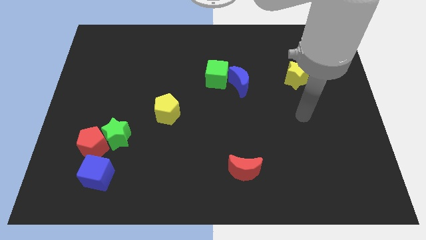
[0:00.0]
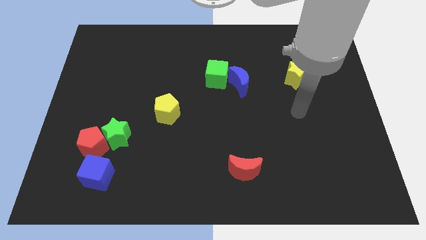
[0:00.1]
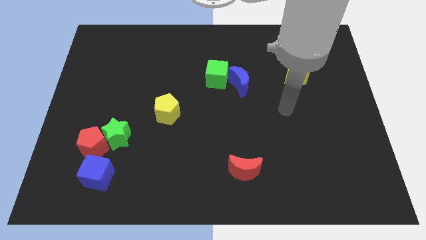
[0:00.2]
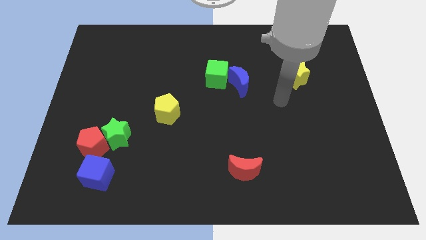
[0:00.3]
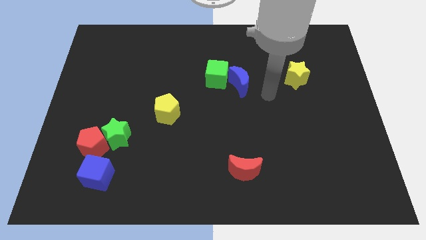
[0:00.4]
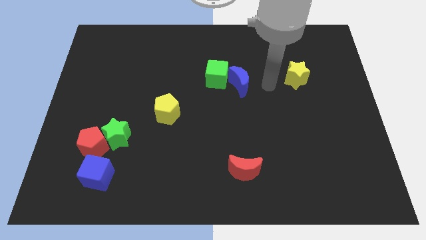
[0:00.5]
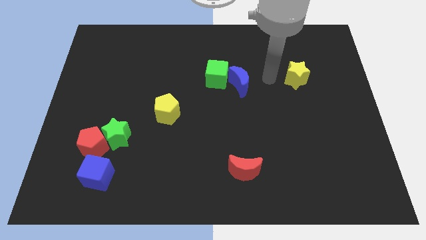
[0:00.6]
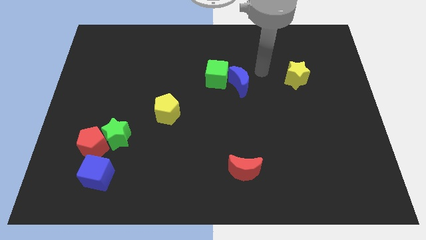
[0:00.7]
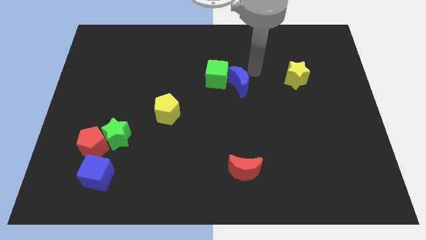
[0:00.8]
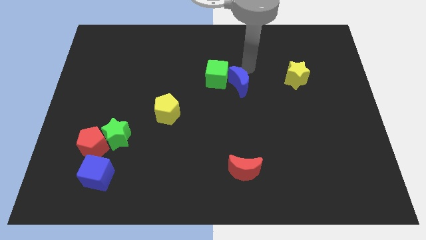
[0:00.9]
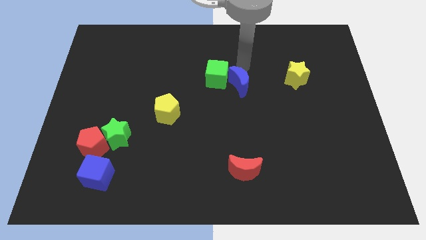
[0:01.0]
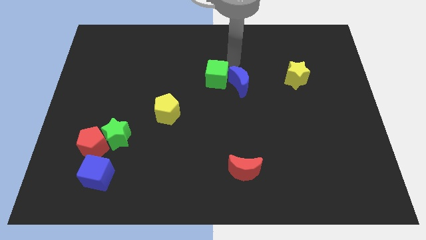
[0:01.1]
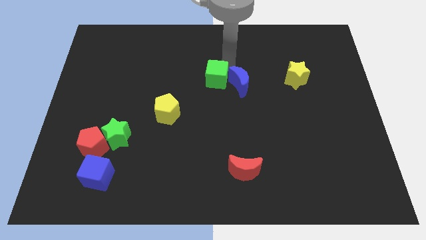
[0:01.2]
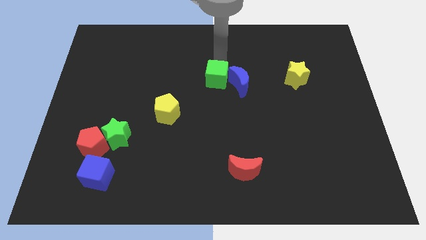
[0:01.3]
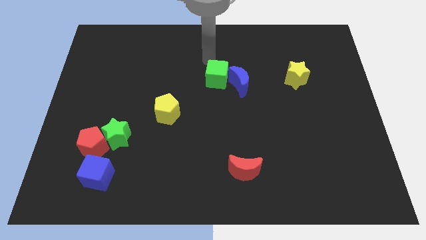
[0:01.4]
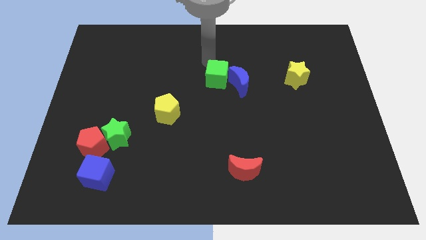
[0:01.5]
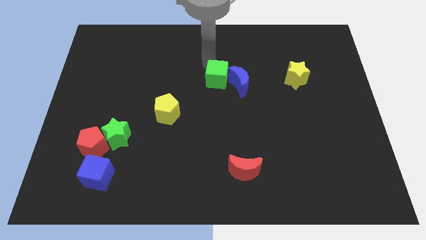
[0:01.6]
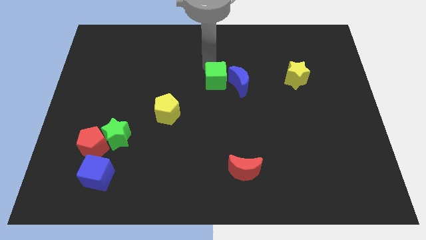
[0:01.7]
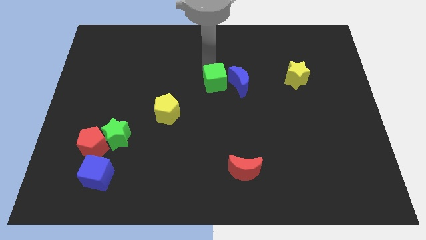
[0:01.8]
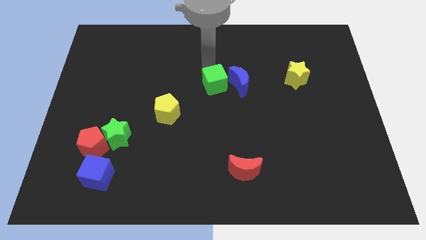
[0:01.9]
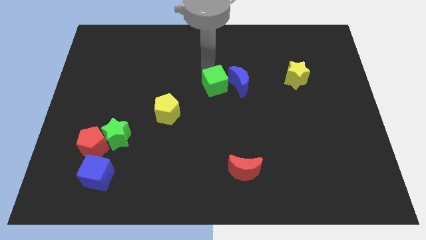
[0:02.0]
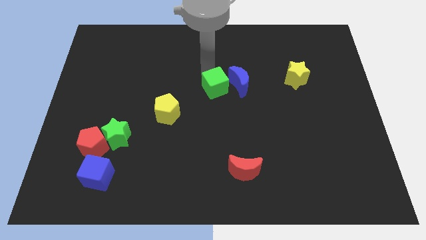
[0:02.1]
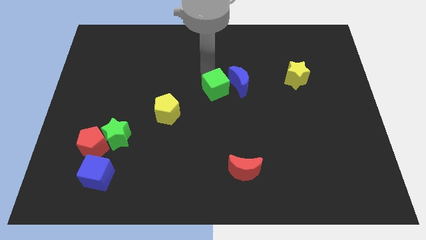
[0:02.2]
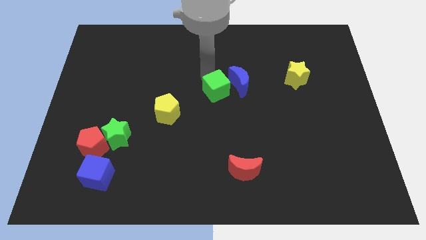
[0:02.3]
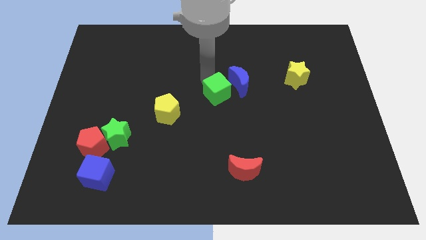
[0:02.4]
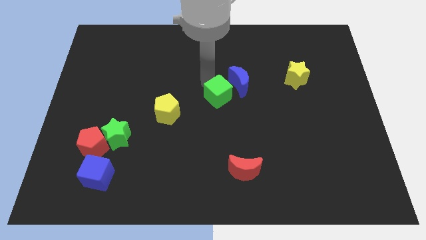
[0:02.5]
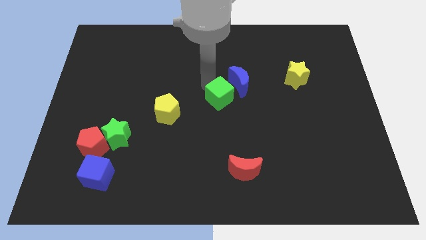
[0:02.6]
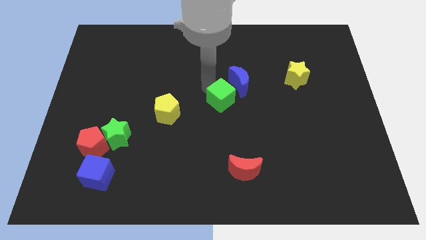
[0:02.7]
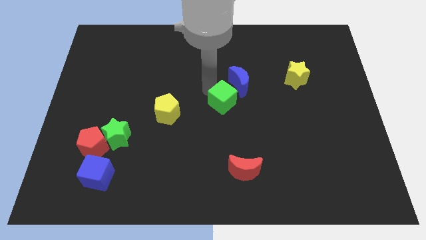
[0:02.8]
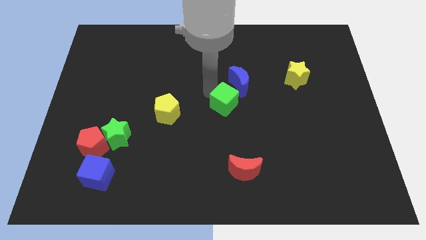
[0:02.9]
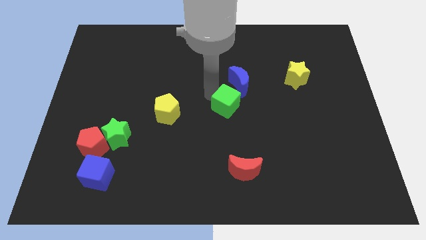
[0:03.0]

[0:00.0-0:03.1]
slightly move the green cube downwards and right

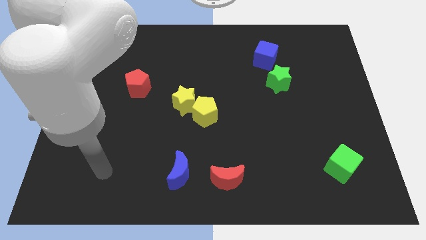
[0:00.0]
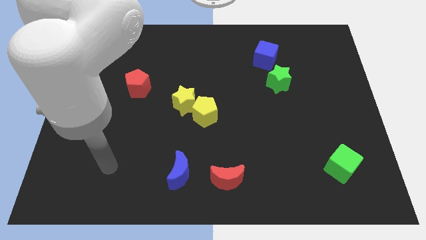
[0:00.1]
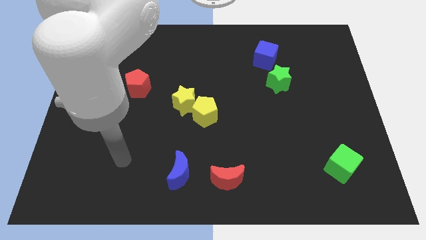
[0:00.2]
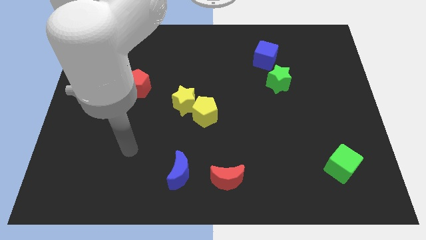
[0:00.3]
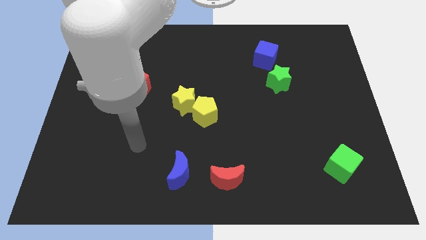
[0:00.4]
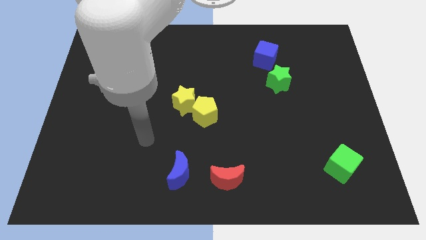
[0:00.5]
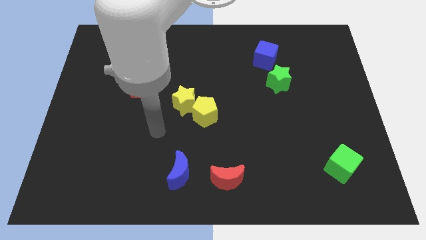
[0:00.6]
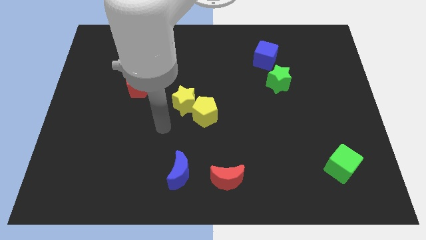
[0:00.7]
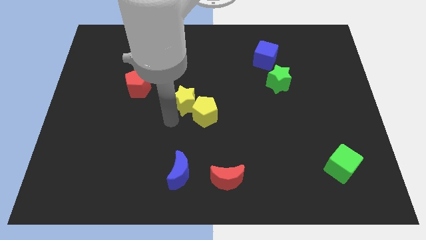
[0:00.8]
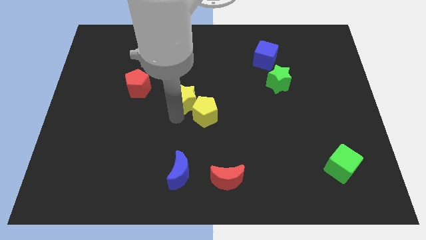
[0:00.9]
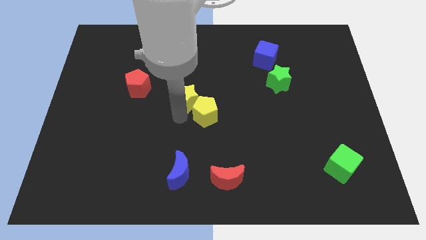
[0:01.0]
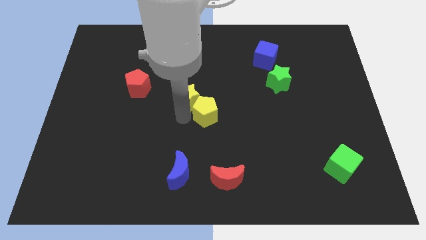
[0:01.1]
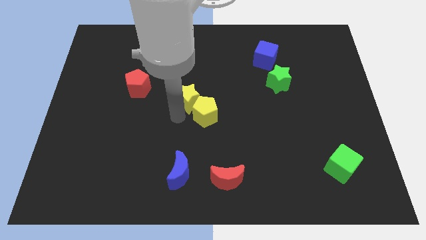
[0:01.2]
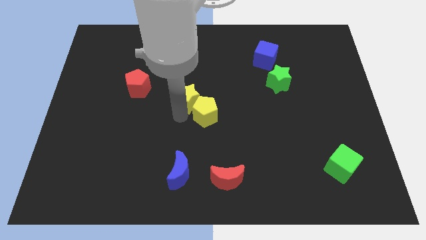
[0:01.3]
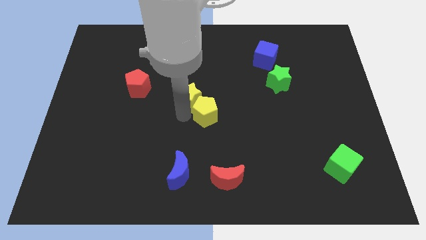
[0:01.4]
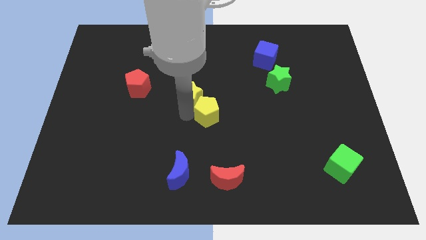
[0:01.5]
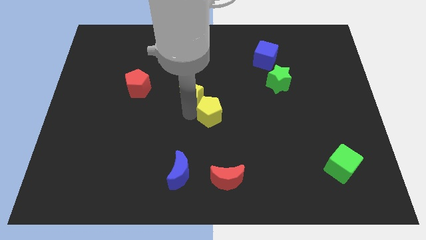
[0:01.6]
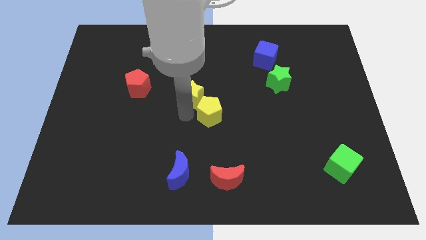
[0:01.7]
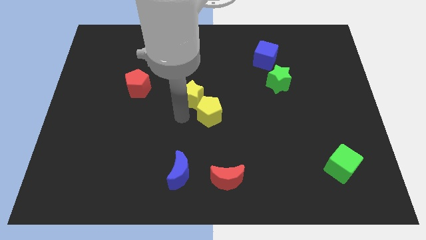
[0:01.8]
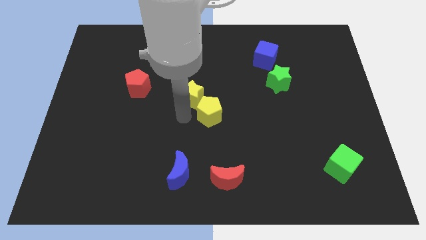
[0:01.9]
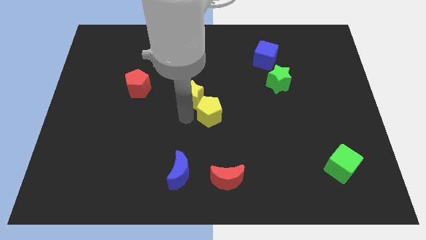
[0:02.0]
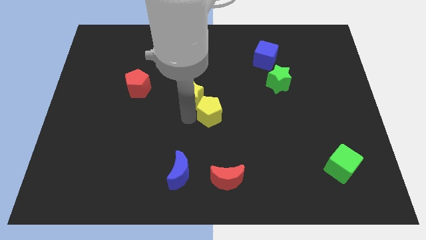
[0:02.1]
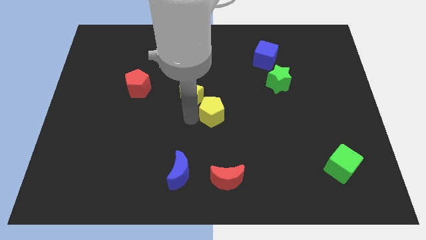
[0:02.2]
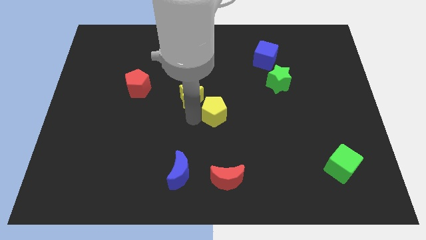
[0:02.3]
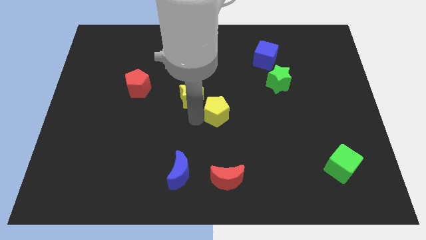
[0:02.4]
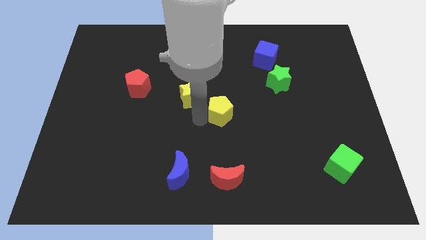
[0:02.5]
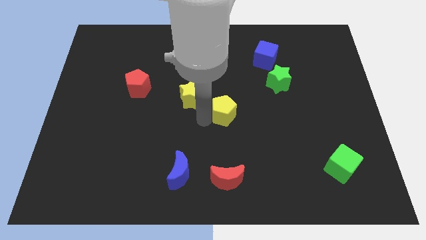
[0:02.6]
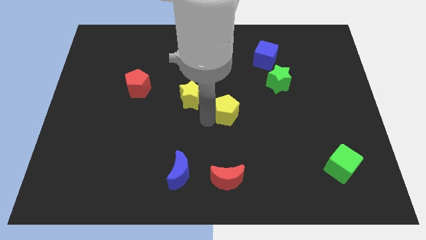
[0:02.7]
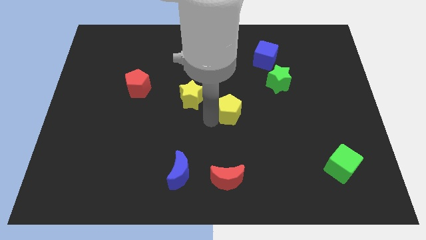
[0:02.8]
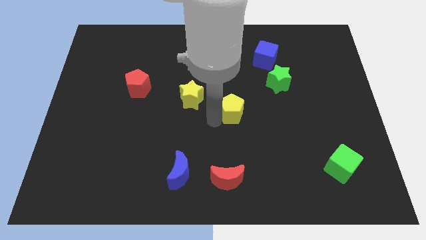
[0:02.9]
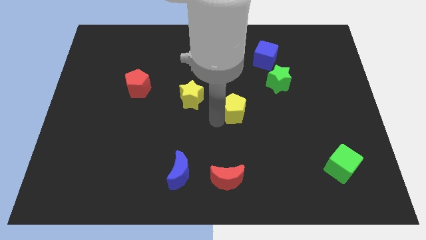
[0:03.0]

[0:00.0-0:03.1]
push the yellow pentagon a little to the right

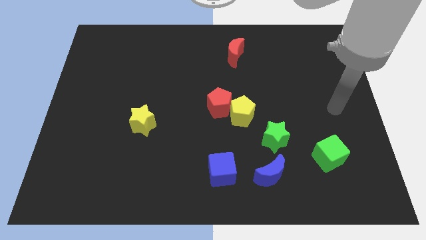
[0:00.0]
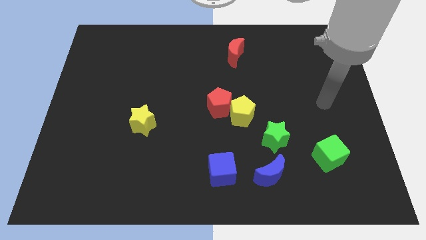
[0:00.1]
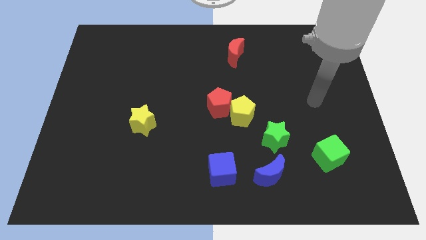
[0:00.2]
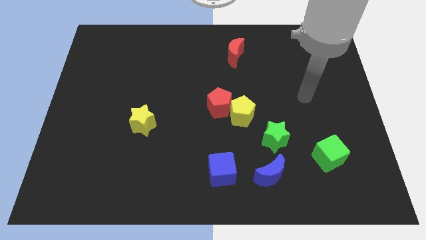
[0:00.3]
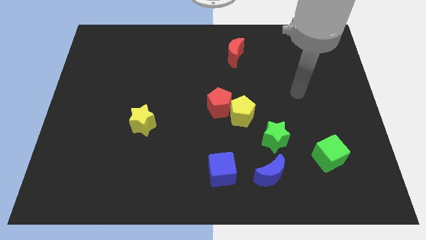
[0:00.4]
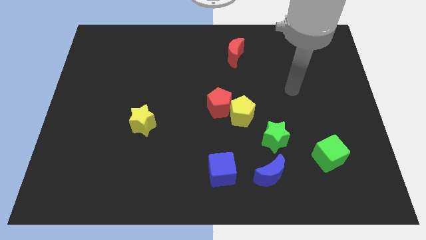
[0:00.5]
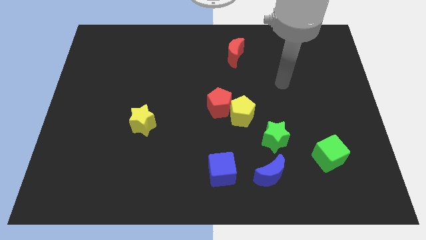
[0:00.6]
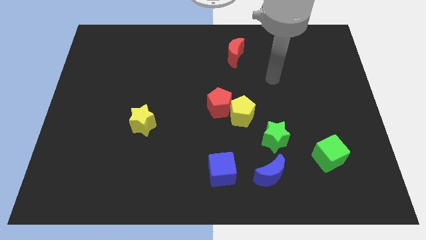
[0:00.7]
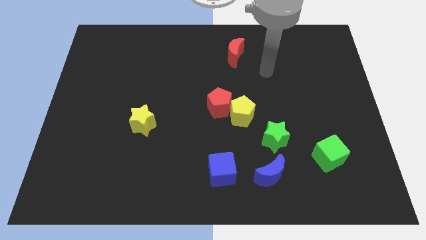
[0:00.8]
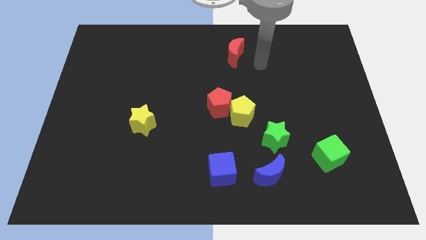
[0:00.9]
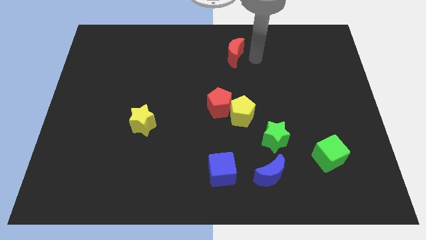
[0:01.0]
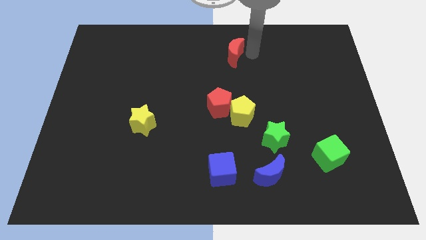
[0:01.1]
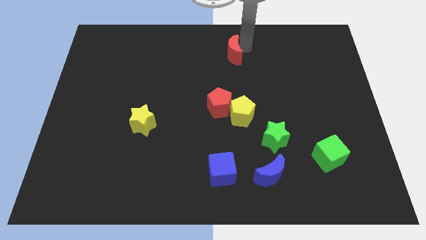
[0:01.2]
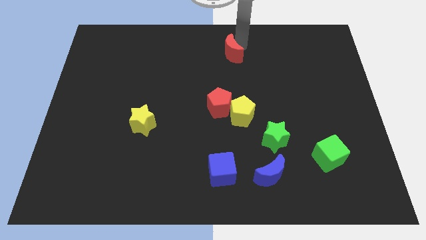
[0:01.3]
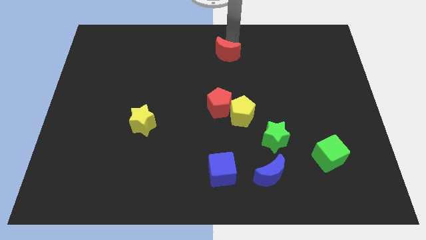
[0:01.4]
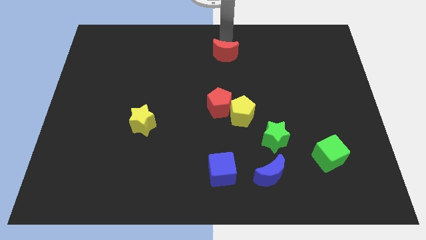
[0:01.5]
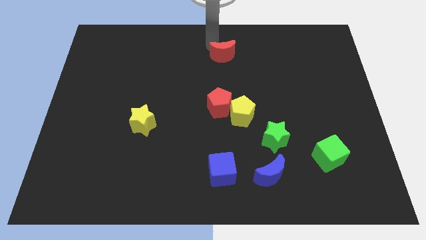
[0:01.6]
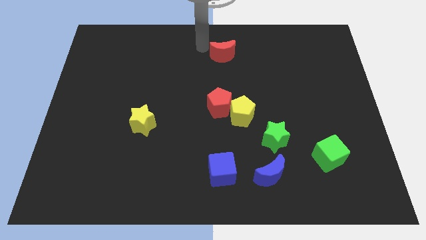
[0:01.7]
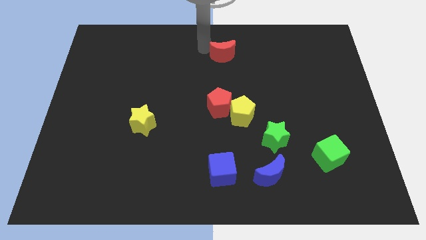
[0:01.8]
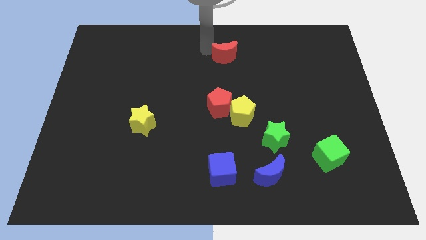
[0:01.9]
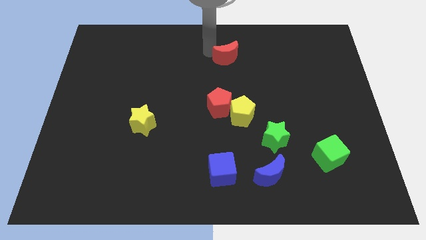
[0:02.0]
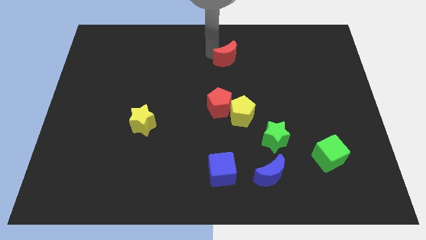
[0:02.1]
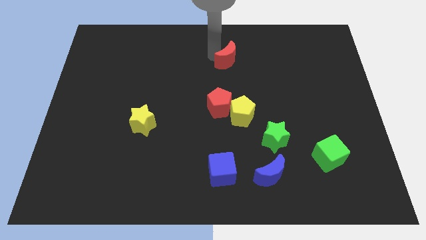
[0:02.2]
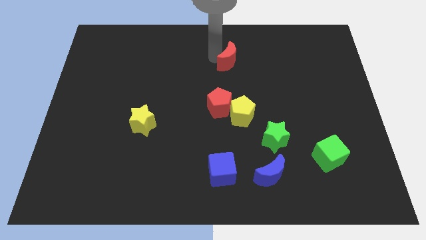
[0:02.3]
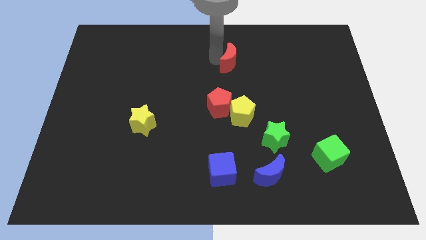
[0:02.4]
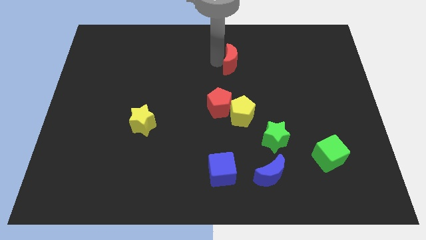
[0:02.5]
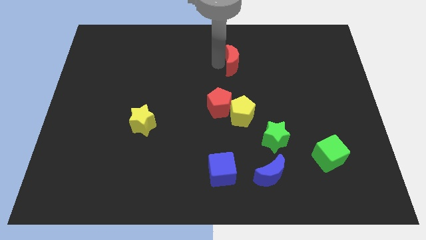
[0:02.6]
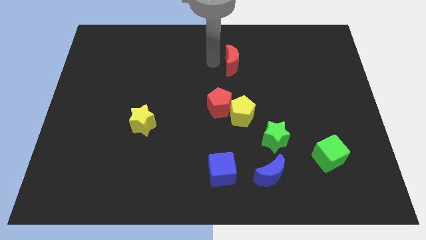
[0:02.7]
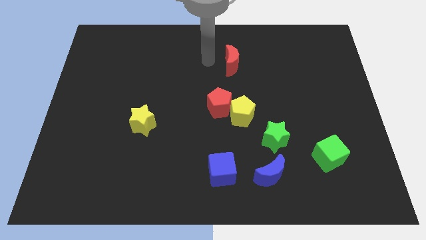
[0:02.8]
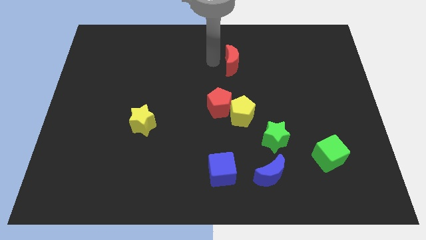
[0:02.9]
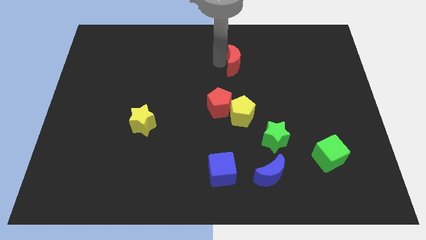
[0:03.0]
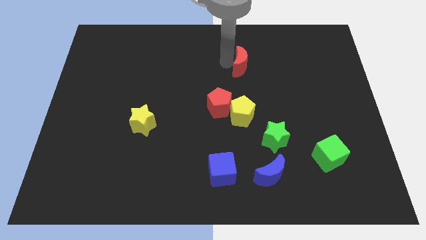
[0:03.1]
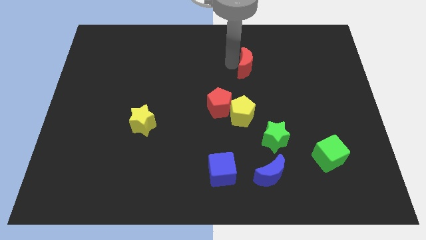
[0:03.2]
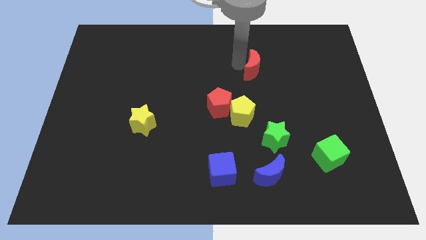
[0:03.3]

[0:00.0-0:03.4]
slightly move the red moon downwards and to the right
